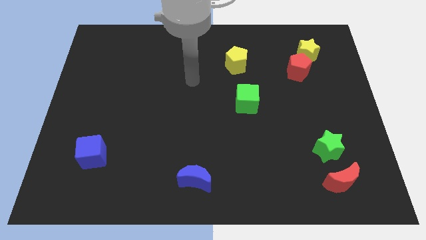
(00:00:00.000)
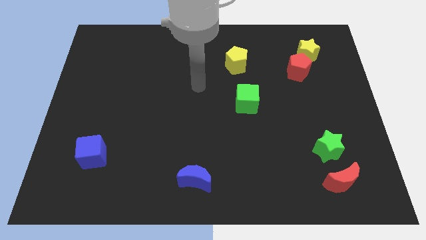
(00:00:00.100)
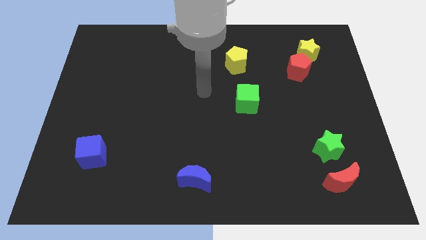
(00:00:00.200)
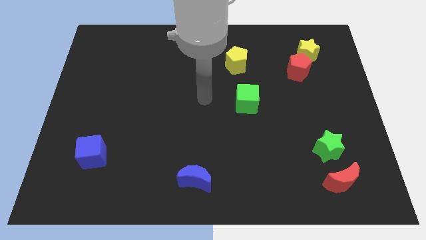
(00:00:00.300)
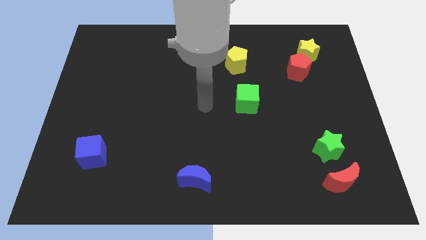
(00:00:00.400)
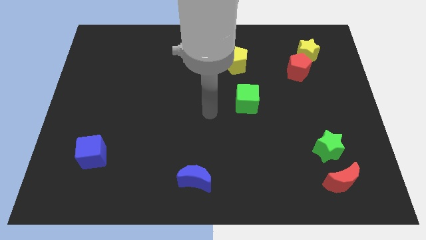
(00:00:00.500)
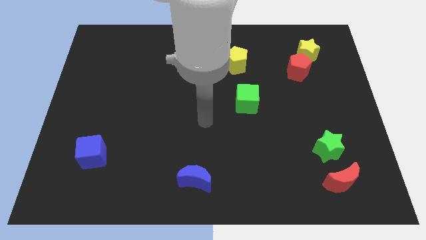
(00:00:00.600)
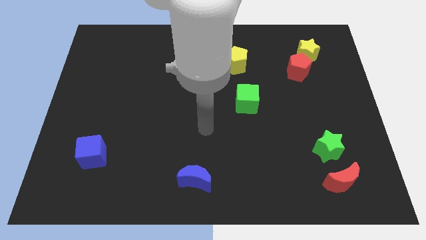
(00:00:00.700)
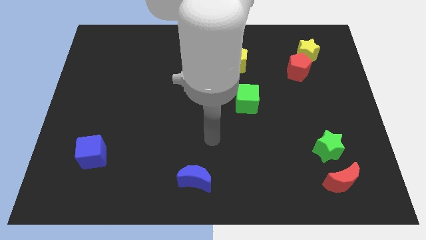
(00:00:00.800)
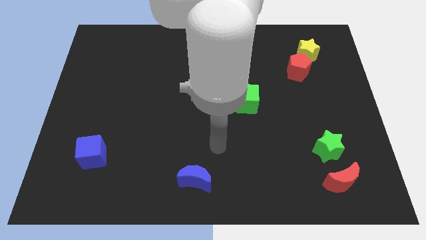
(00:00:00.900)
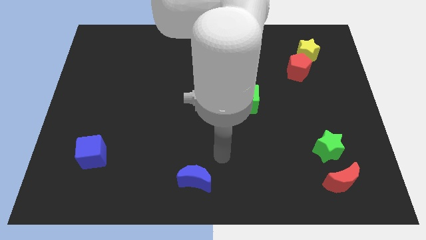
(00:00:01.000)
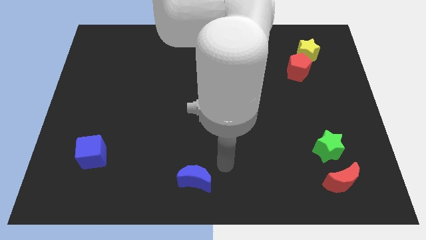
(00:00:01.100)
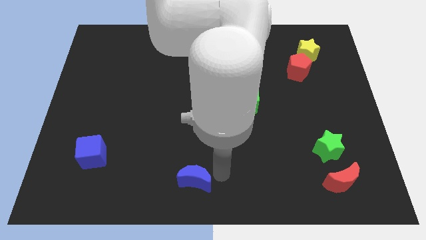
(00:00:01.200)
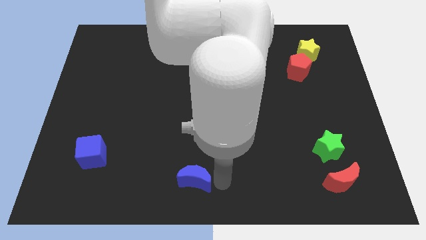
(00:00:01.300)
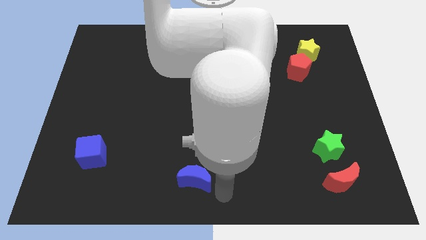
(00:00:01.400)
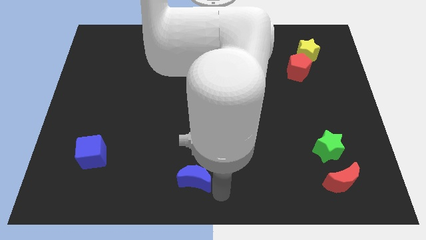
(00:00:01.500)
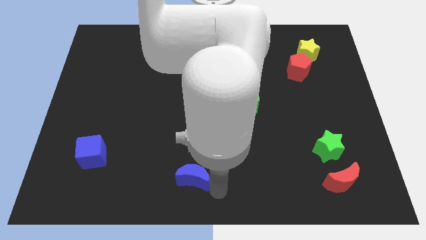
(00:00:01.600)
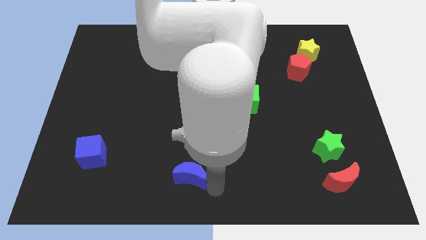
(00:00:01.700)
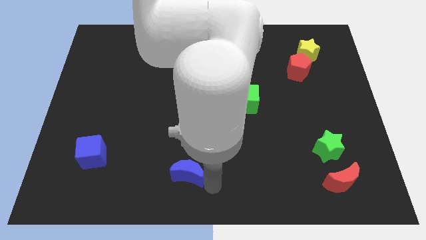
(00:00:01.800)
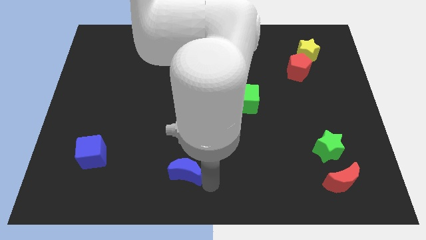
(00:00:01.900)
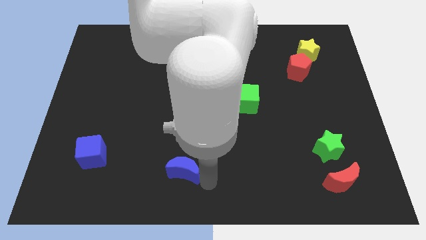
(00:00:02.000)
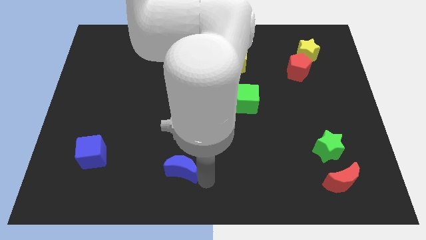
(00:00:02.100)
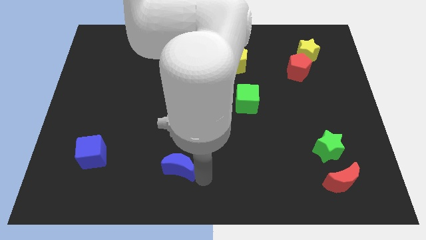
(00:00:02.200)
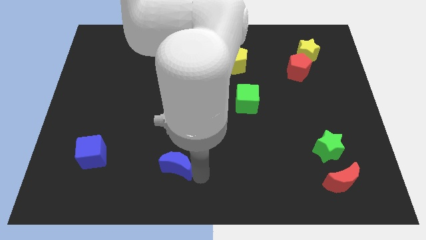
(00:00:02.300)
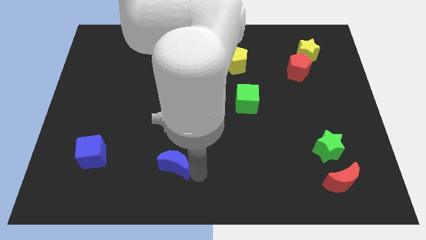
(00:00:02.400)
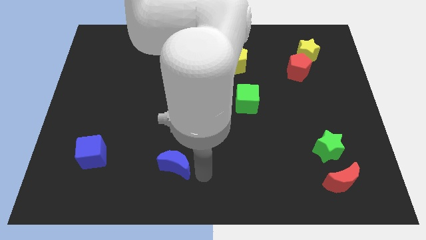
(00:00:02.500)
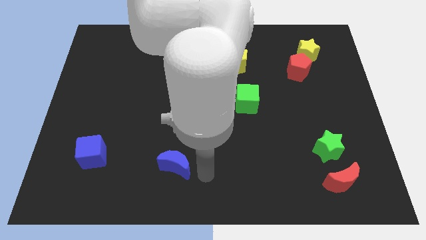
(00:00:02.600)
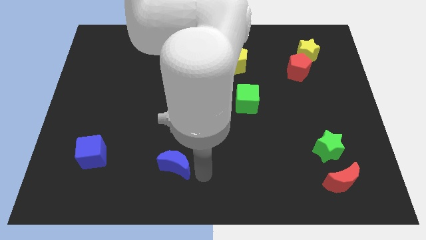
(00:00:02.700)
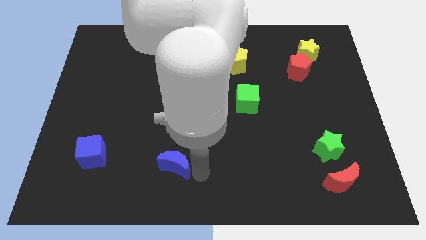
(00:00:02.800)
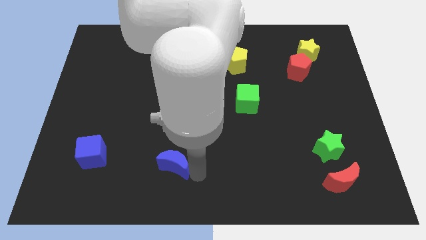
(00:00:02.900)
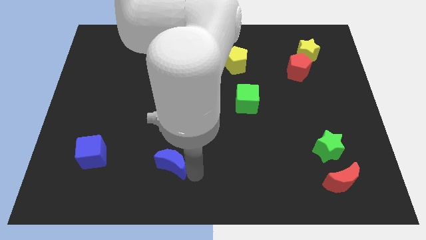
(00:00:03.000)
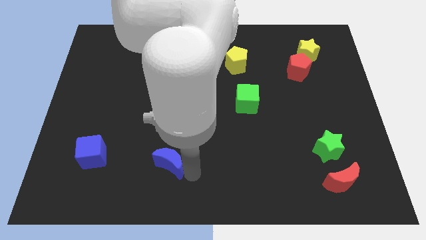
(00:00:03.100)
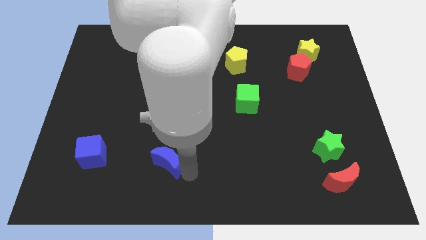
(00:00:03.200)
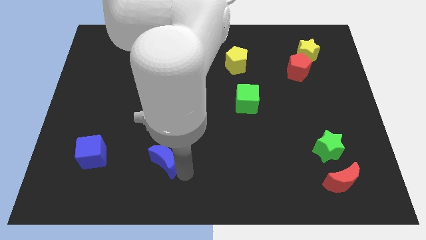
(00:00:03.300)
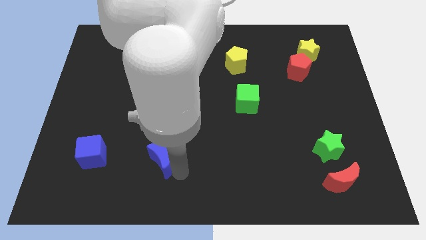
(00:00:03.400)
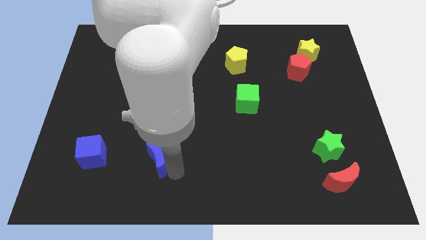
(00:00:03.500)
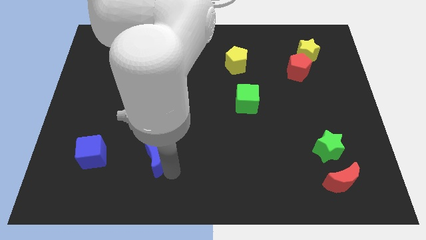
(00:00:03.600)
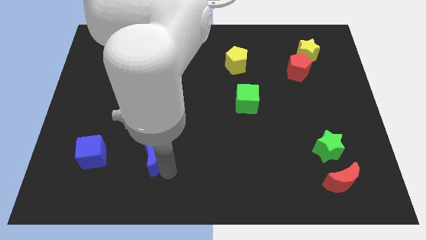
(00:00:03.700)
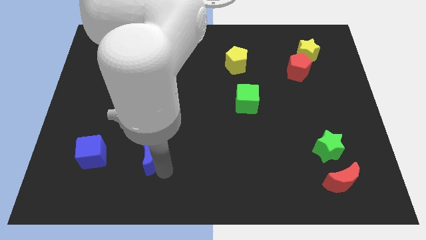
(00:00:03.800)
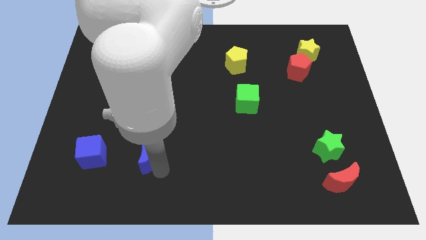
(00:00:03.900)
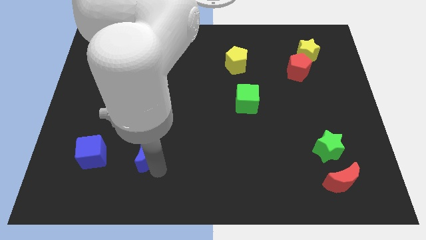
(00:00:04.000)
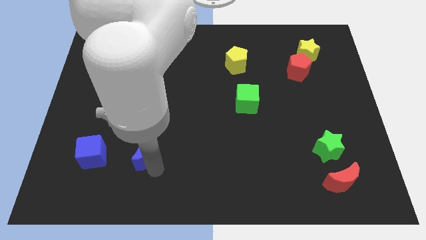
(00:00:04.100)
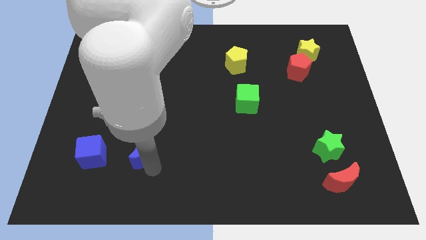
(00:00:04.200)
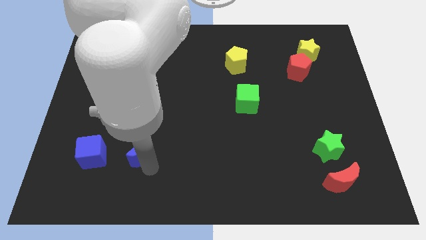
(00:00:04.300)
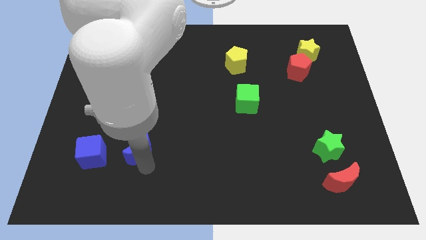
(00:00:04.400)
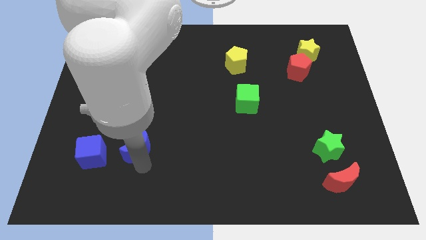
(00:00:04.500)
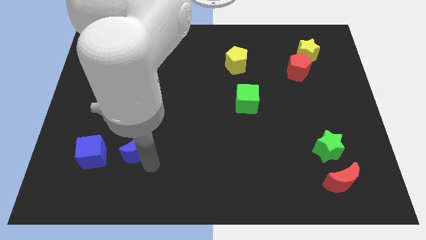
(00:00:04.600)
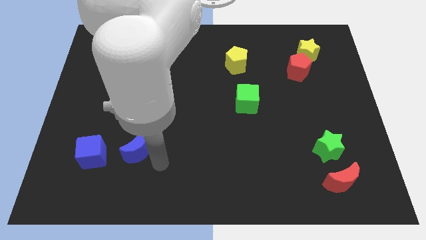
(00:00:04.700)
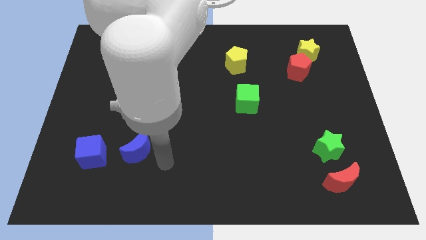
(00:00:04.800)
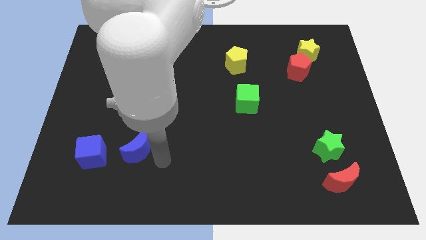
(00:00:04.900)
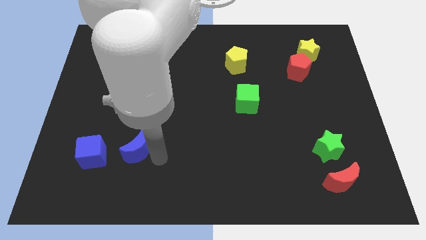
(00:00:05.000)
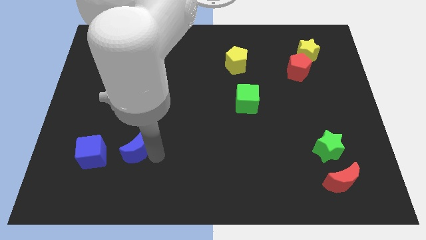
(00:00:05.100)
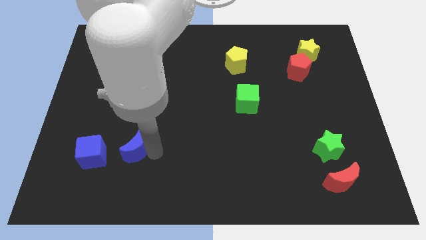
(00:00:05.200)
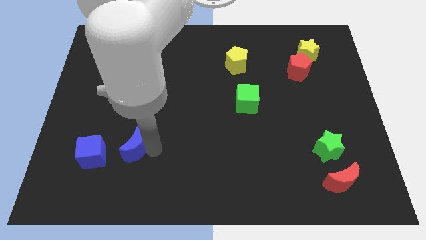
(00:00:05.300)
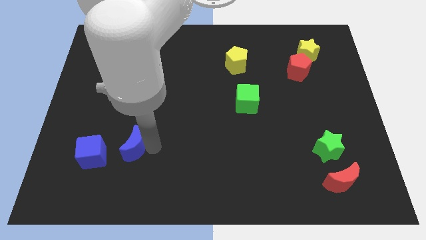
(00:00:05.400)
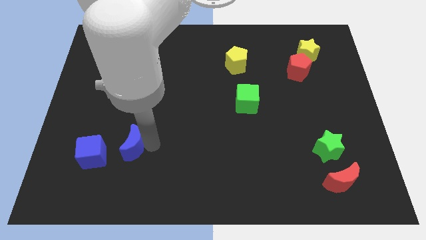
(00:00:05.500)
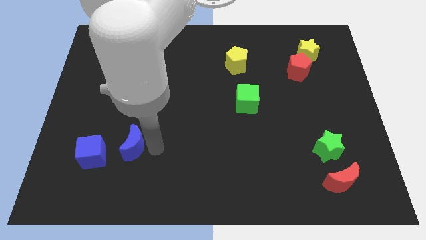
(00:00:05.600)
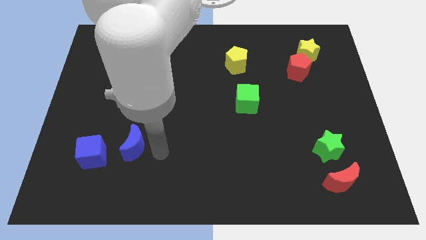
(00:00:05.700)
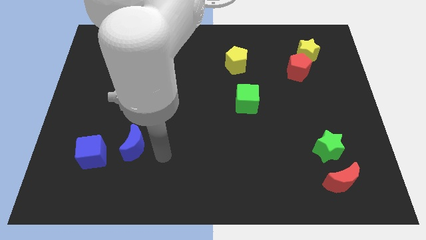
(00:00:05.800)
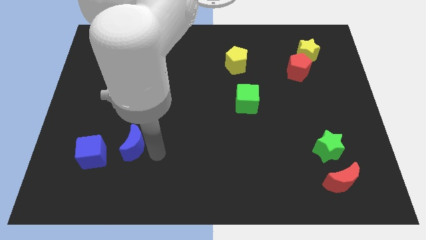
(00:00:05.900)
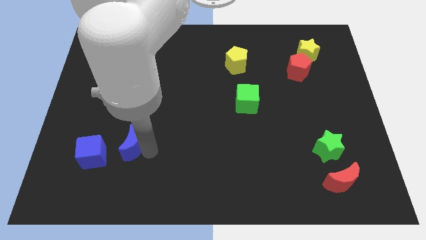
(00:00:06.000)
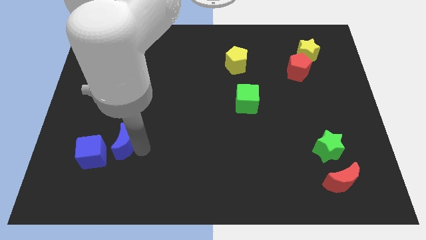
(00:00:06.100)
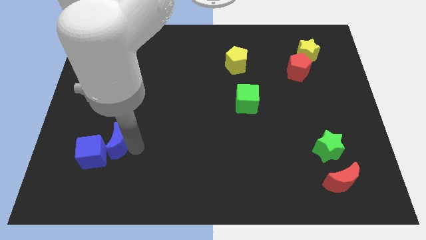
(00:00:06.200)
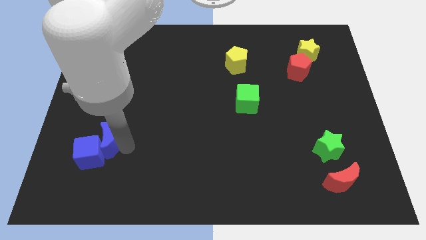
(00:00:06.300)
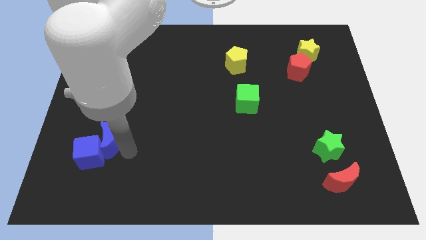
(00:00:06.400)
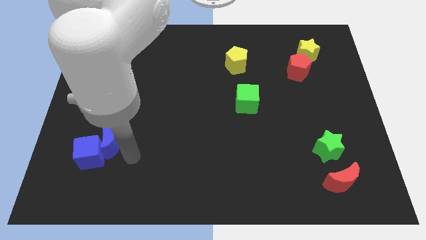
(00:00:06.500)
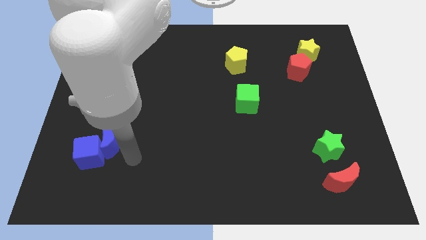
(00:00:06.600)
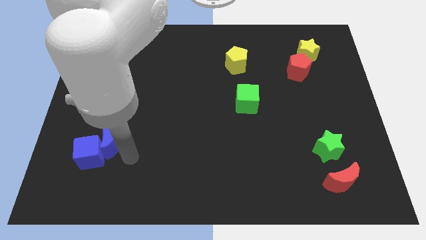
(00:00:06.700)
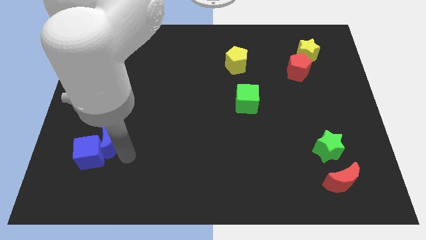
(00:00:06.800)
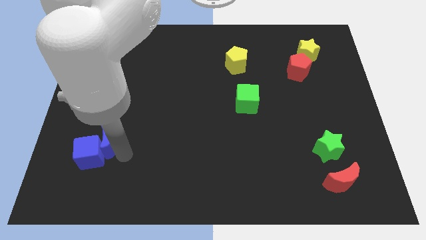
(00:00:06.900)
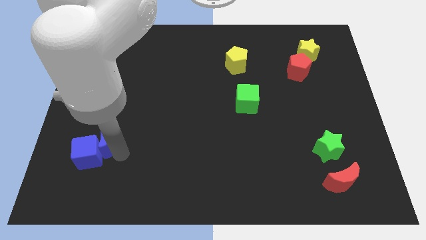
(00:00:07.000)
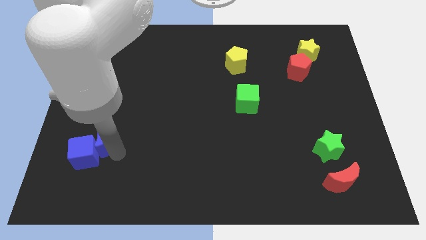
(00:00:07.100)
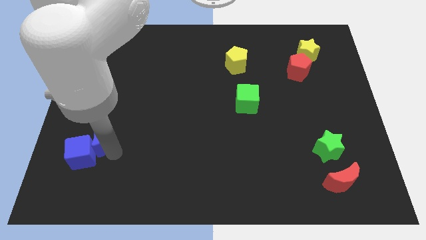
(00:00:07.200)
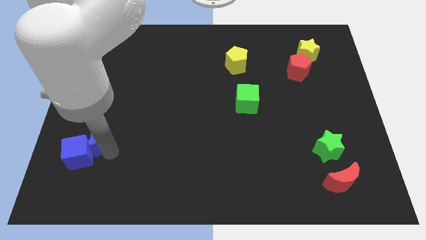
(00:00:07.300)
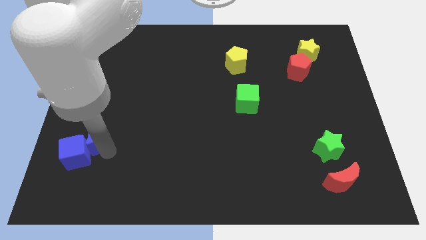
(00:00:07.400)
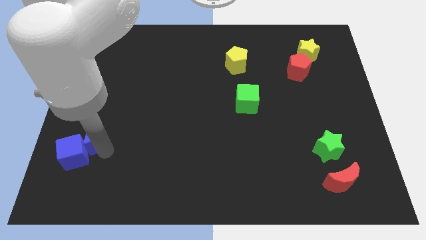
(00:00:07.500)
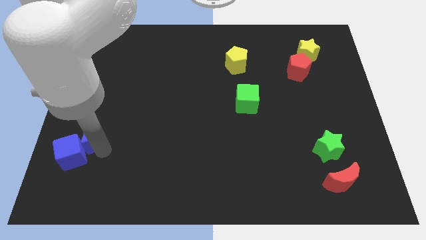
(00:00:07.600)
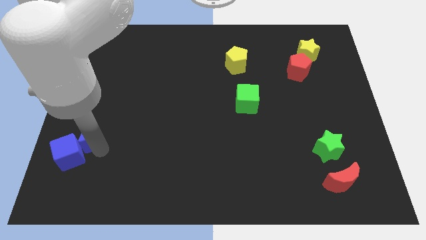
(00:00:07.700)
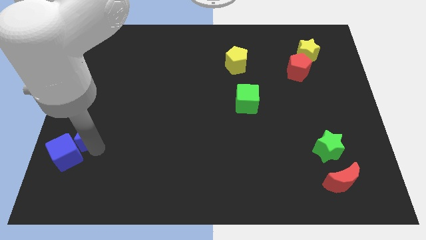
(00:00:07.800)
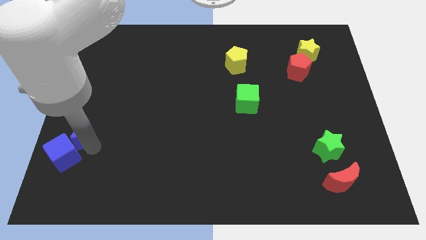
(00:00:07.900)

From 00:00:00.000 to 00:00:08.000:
slide the blue moon to the left side of the board
